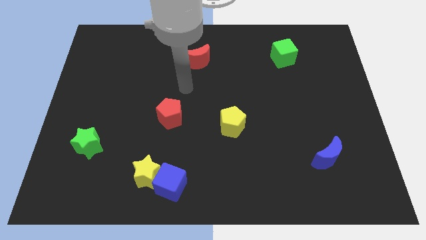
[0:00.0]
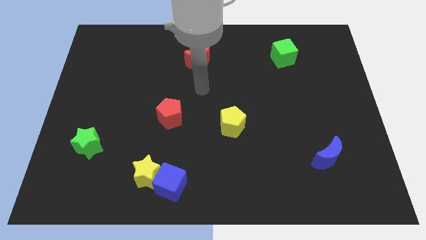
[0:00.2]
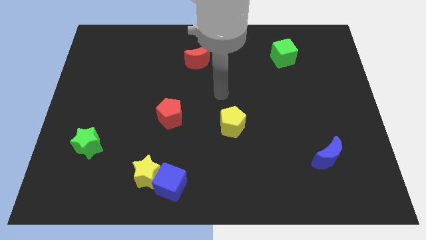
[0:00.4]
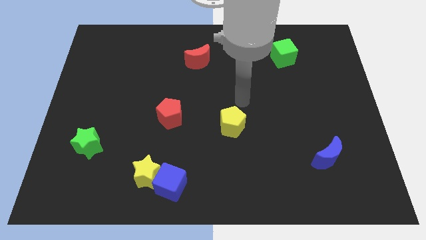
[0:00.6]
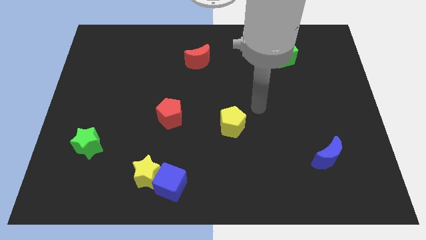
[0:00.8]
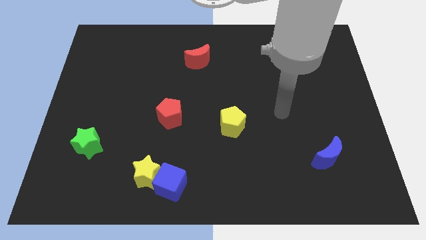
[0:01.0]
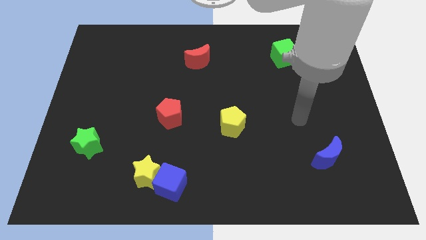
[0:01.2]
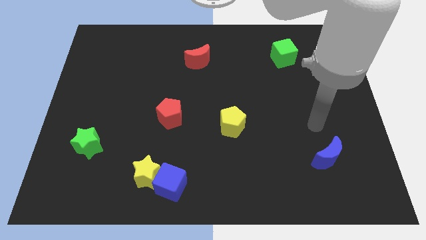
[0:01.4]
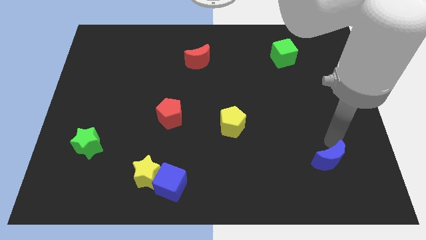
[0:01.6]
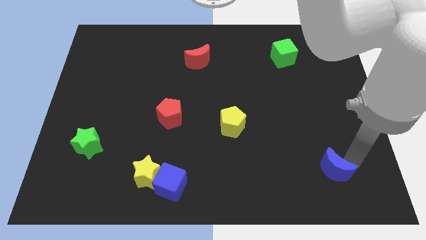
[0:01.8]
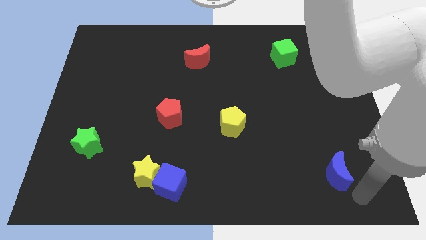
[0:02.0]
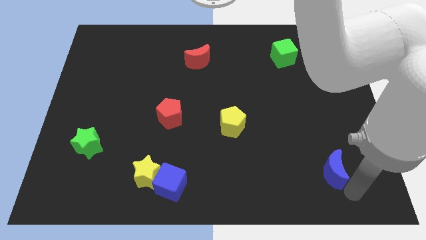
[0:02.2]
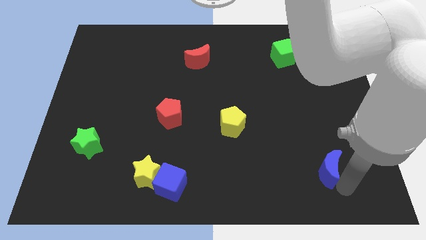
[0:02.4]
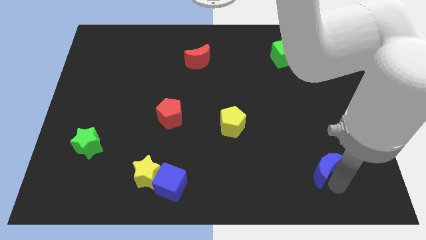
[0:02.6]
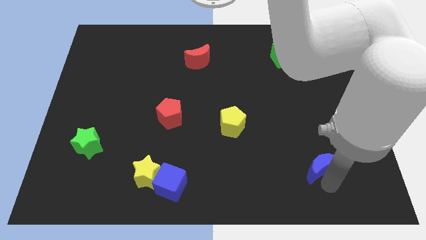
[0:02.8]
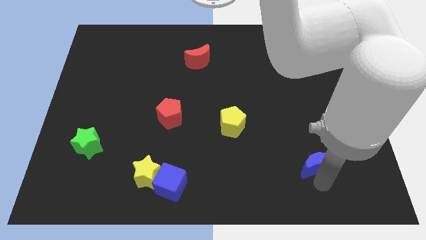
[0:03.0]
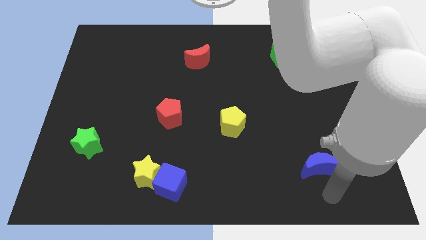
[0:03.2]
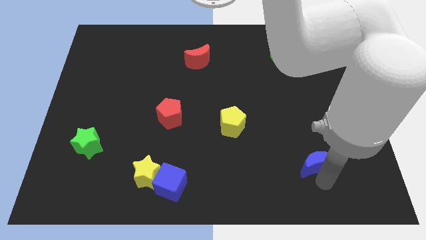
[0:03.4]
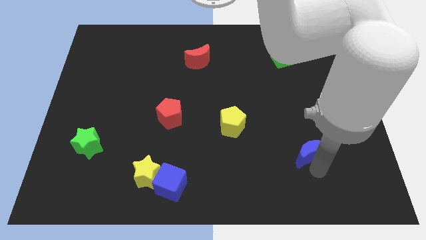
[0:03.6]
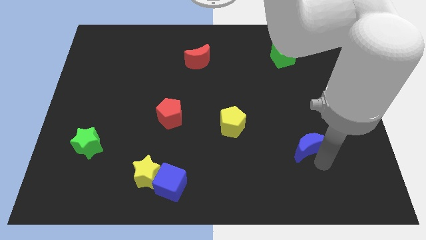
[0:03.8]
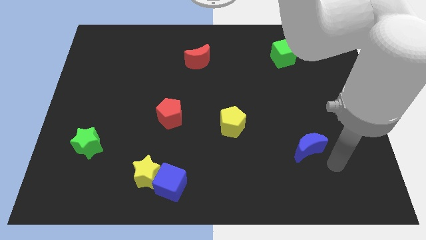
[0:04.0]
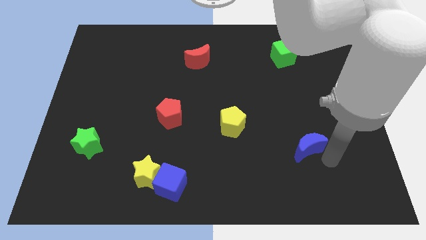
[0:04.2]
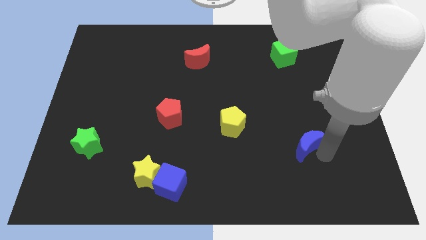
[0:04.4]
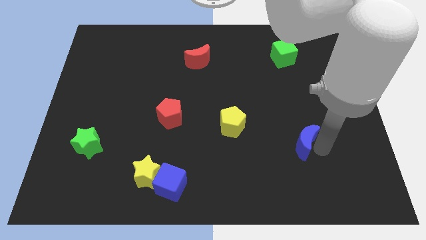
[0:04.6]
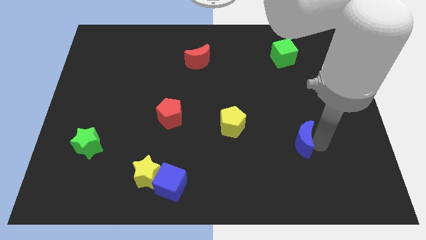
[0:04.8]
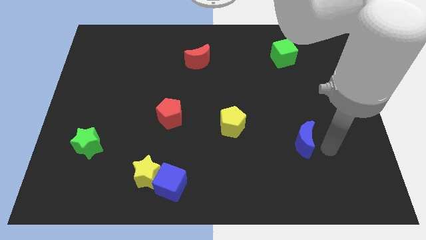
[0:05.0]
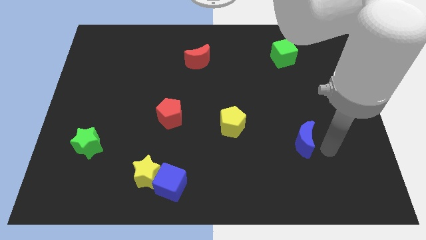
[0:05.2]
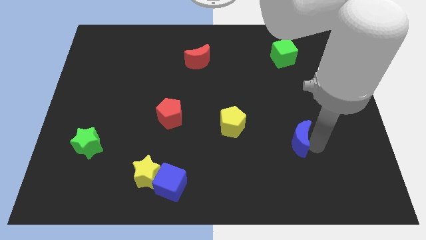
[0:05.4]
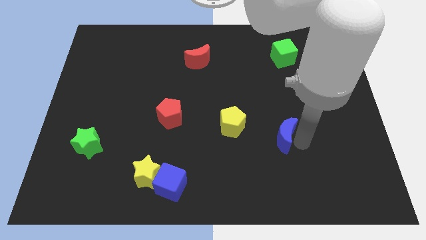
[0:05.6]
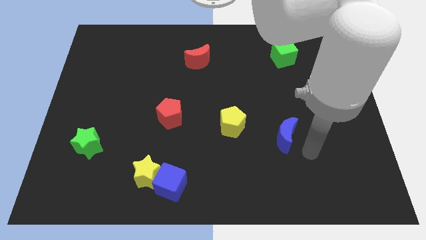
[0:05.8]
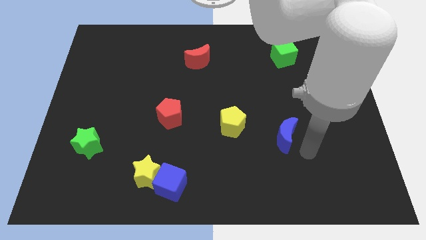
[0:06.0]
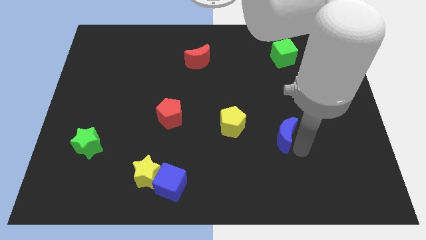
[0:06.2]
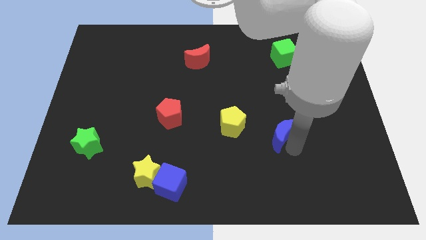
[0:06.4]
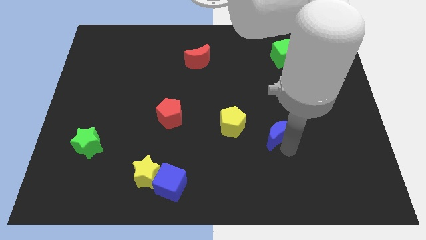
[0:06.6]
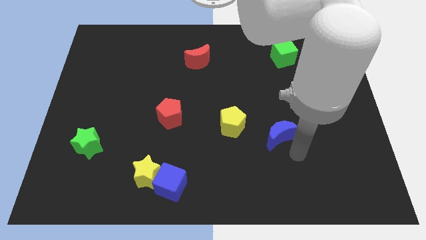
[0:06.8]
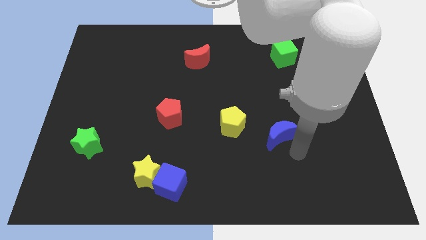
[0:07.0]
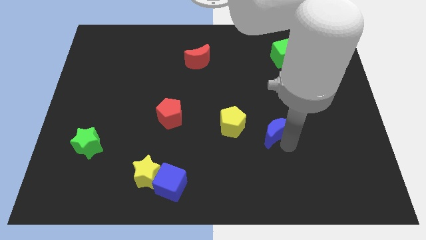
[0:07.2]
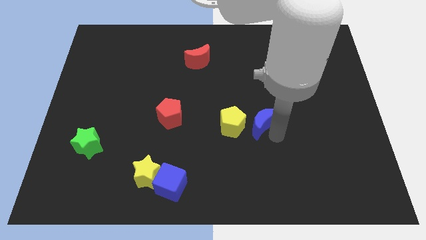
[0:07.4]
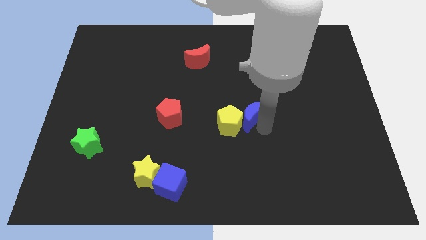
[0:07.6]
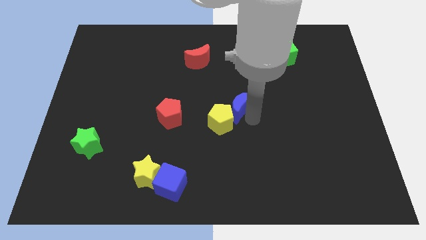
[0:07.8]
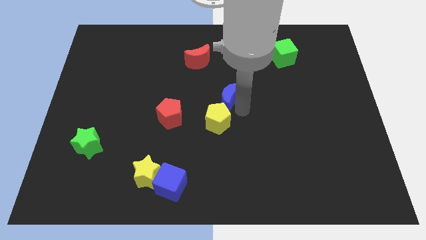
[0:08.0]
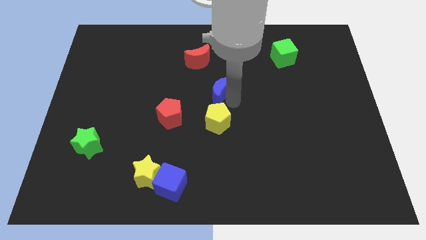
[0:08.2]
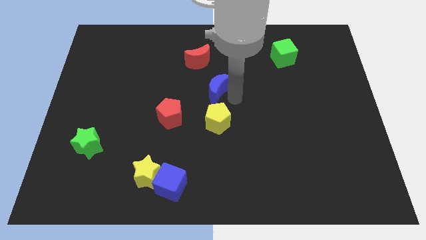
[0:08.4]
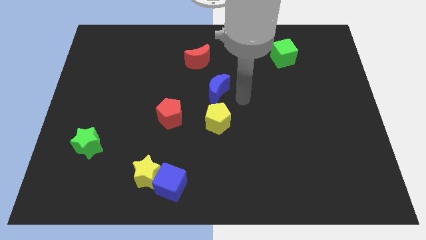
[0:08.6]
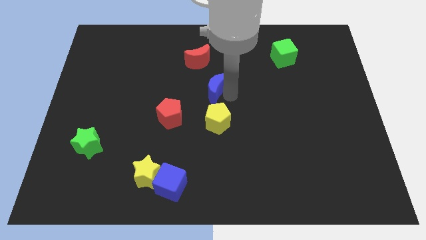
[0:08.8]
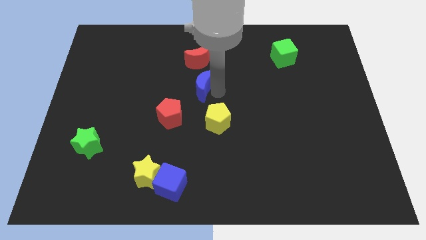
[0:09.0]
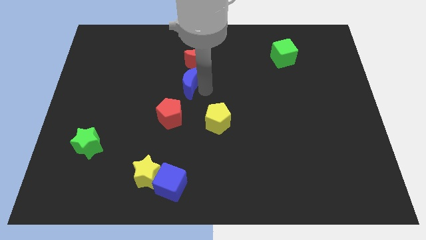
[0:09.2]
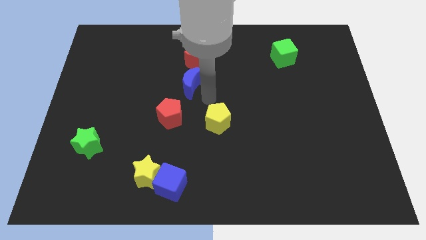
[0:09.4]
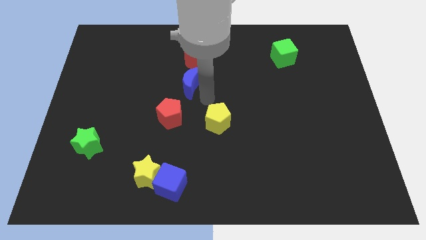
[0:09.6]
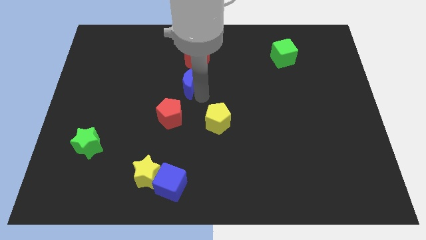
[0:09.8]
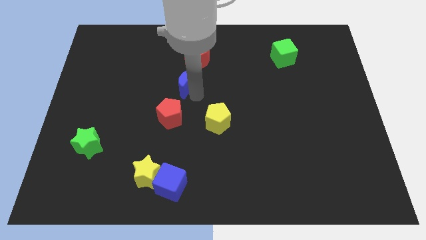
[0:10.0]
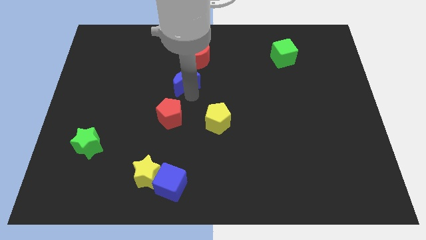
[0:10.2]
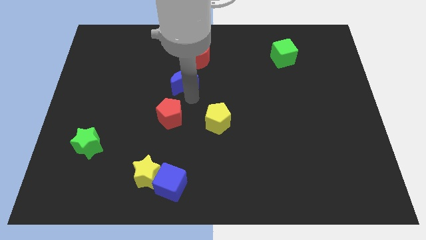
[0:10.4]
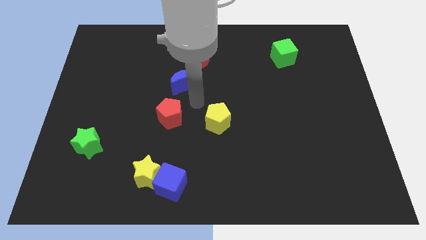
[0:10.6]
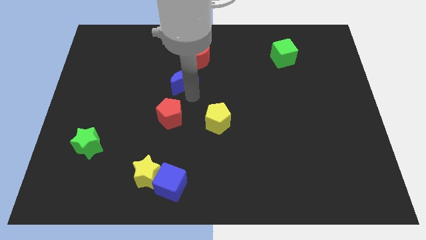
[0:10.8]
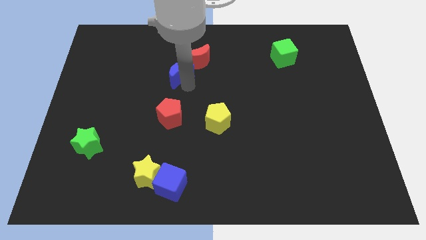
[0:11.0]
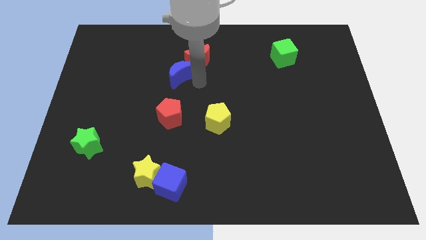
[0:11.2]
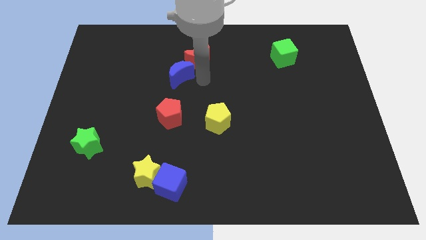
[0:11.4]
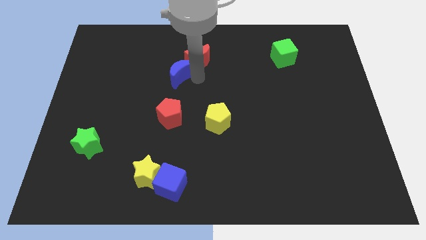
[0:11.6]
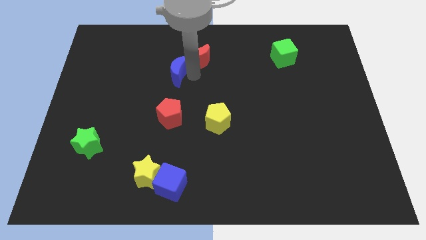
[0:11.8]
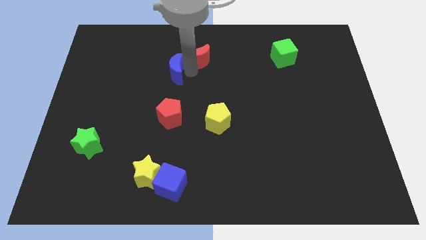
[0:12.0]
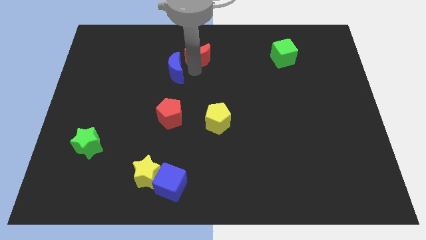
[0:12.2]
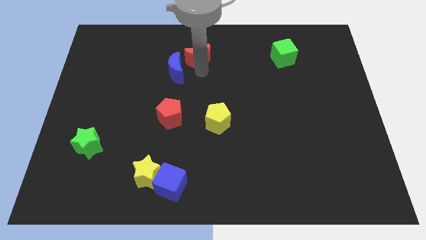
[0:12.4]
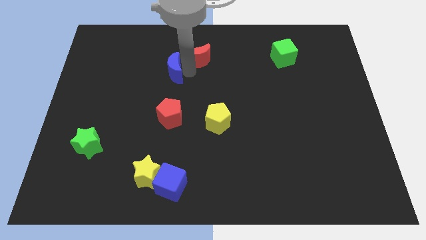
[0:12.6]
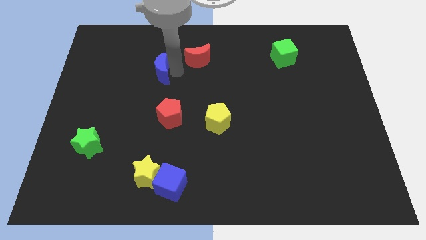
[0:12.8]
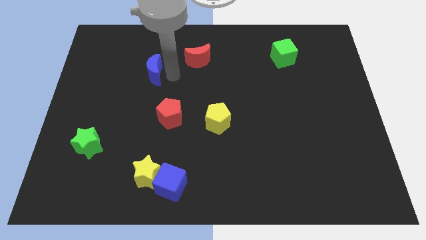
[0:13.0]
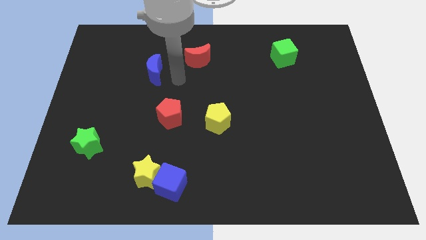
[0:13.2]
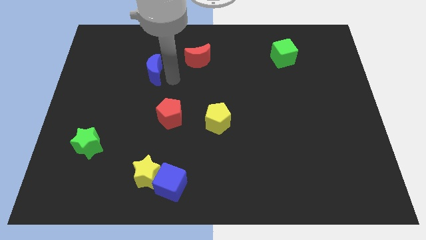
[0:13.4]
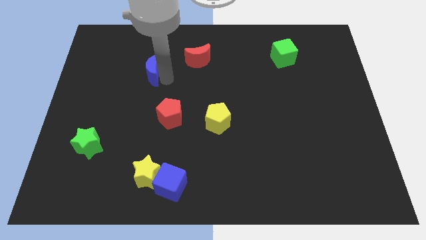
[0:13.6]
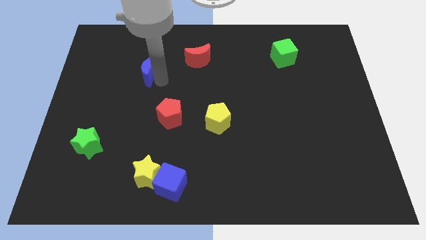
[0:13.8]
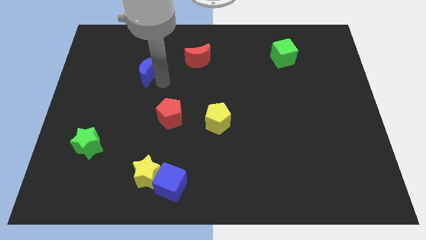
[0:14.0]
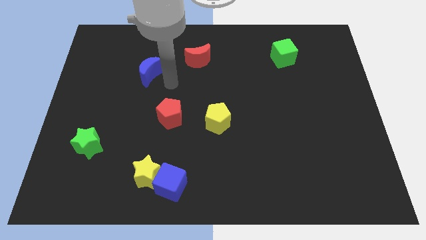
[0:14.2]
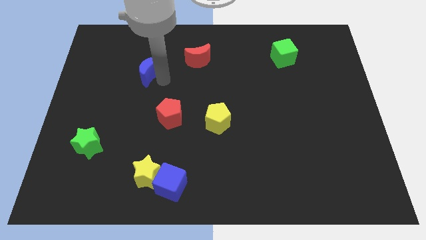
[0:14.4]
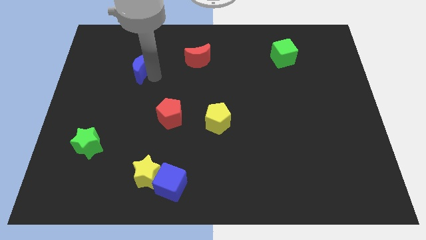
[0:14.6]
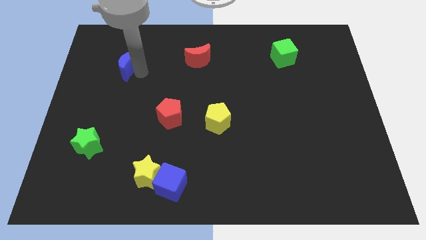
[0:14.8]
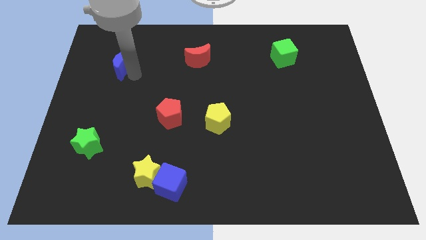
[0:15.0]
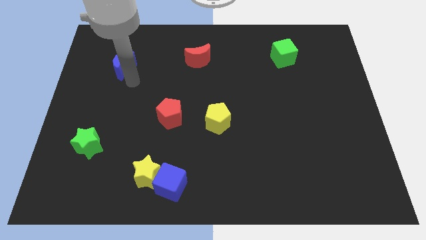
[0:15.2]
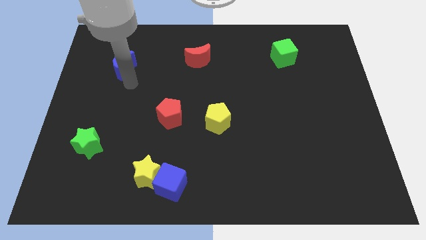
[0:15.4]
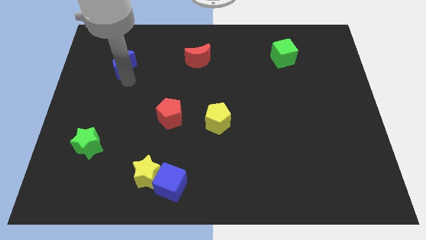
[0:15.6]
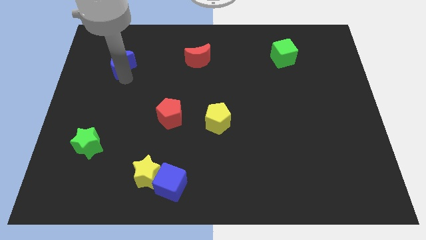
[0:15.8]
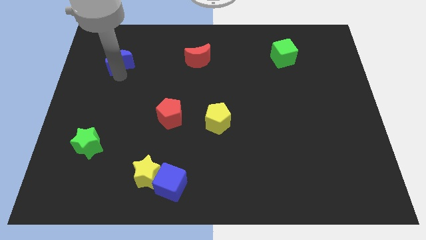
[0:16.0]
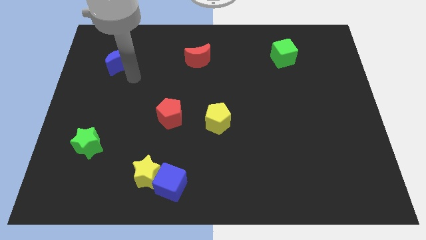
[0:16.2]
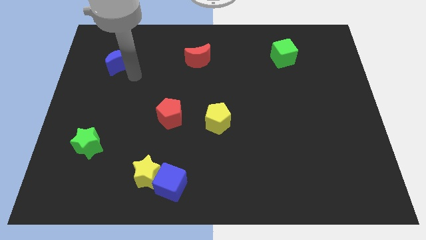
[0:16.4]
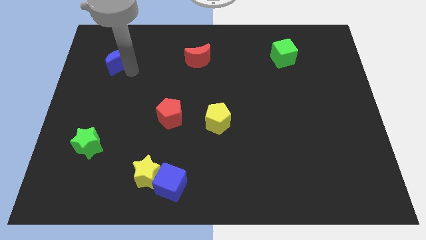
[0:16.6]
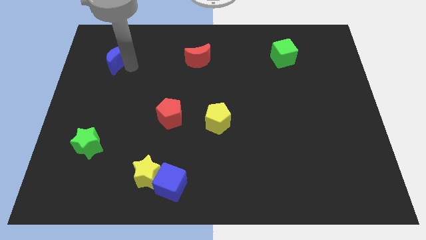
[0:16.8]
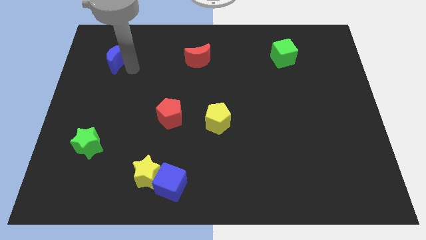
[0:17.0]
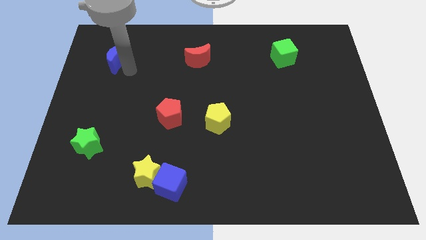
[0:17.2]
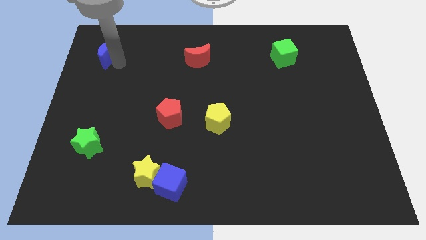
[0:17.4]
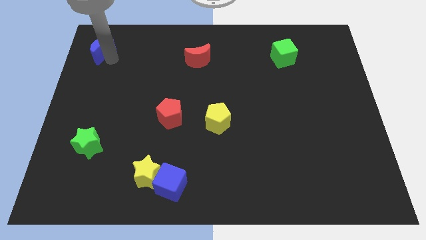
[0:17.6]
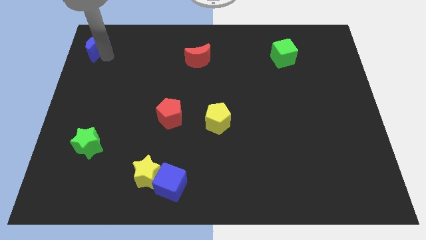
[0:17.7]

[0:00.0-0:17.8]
move the blue moon to the top left of the board
